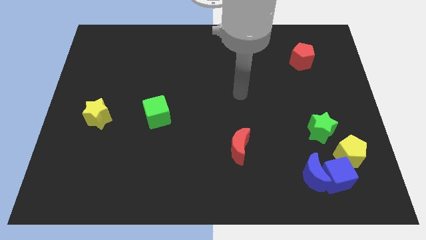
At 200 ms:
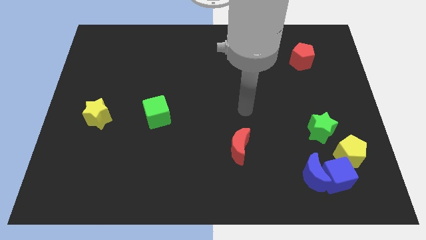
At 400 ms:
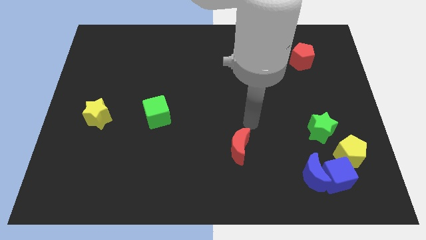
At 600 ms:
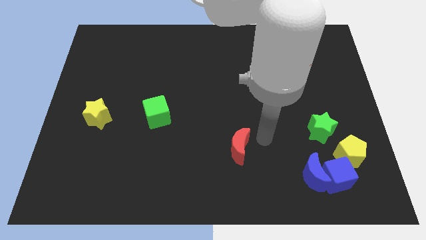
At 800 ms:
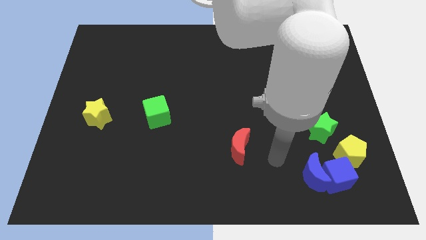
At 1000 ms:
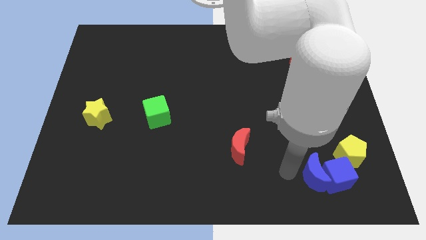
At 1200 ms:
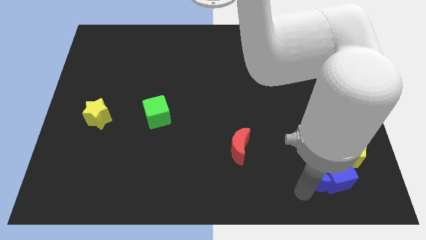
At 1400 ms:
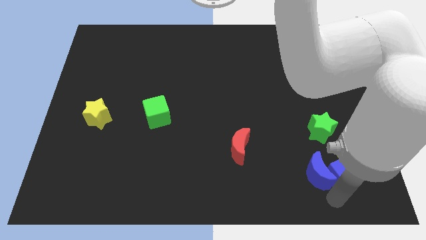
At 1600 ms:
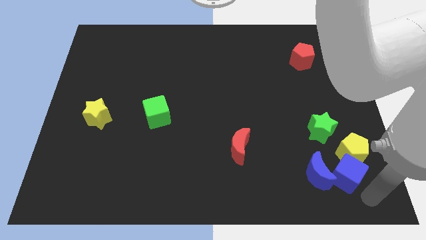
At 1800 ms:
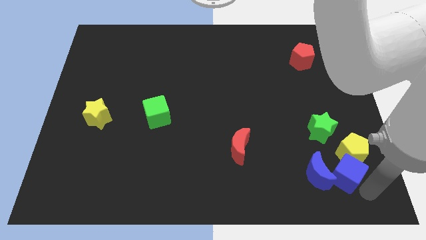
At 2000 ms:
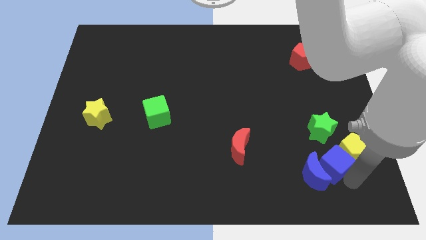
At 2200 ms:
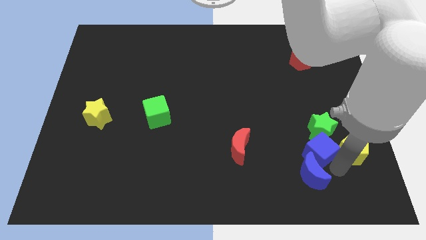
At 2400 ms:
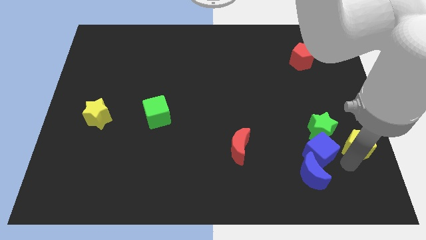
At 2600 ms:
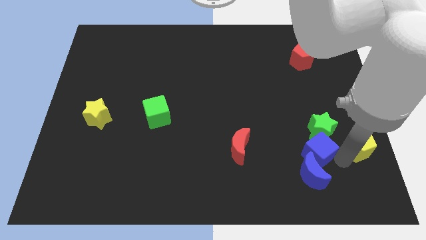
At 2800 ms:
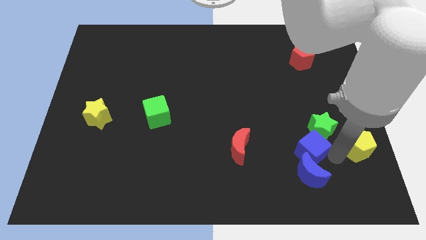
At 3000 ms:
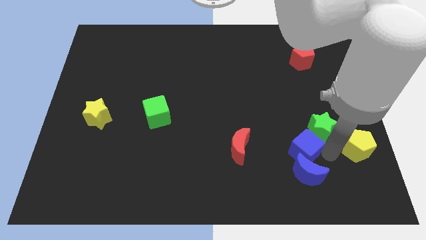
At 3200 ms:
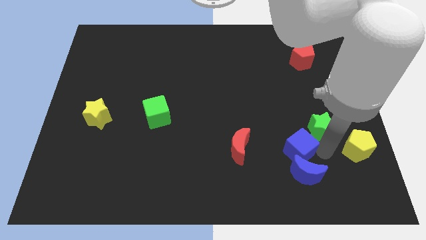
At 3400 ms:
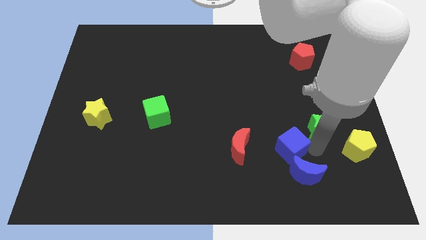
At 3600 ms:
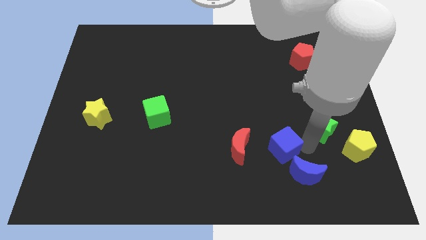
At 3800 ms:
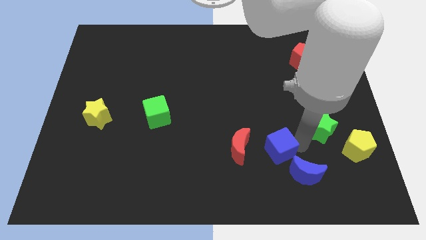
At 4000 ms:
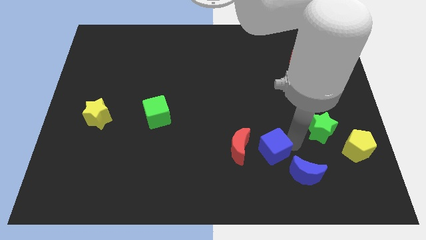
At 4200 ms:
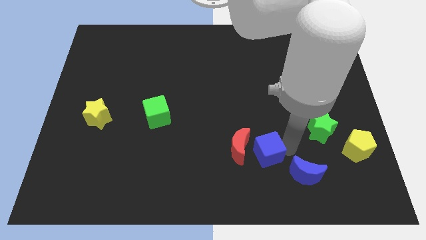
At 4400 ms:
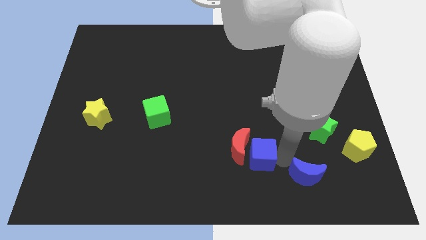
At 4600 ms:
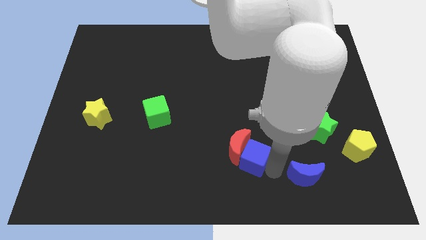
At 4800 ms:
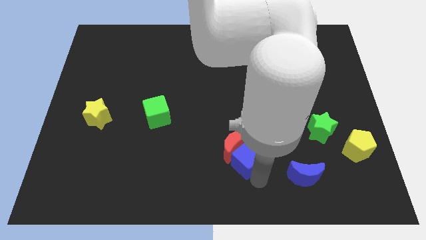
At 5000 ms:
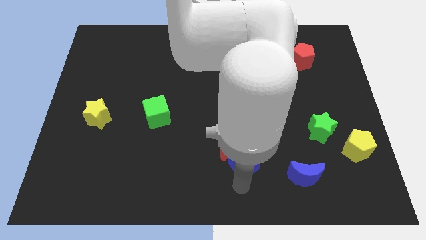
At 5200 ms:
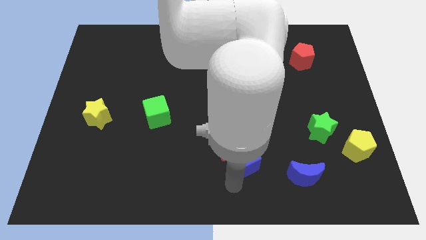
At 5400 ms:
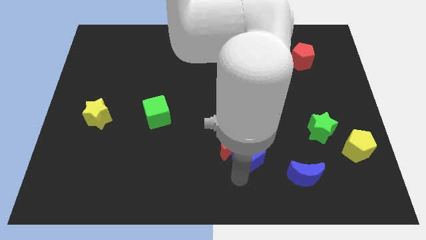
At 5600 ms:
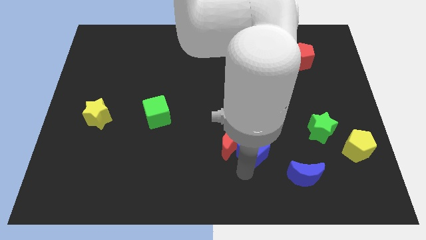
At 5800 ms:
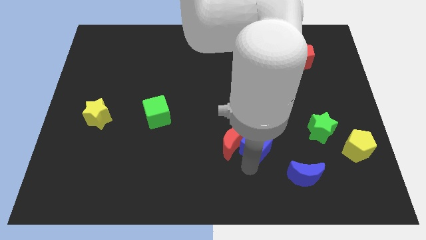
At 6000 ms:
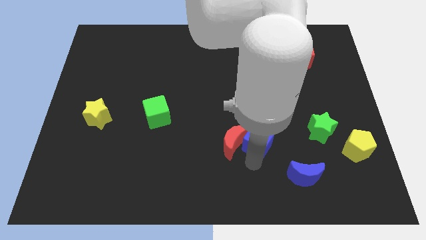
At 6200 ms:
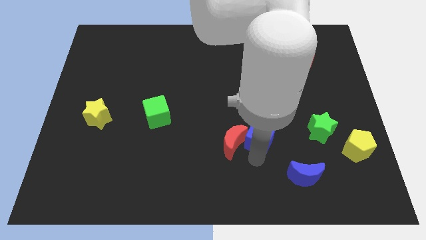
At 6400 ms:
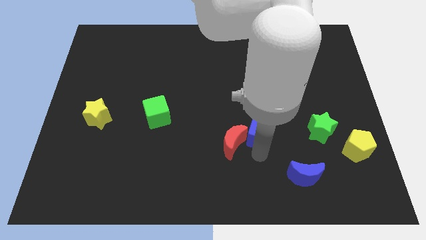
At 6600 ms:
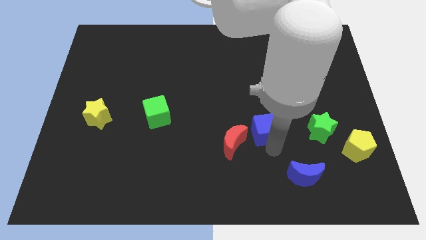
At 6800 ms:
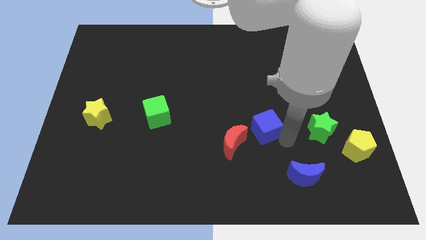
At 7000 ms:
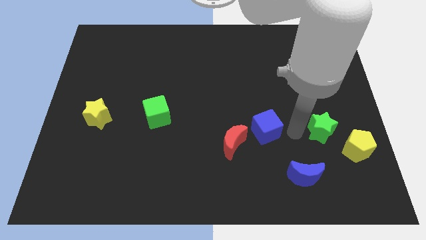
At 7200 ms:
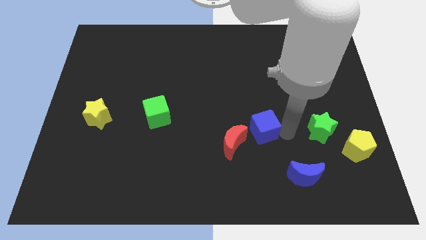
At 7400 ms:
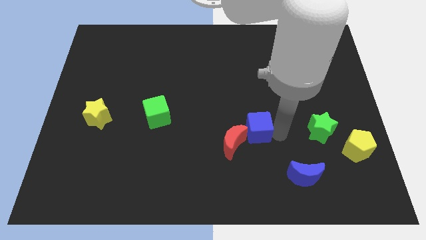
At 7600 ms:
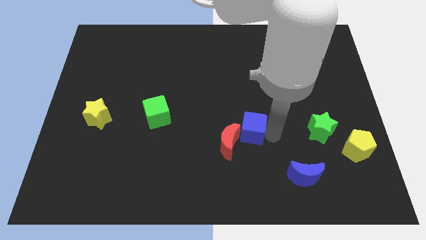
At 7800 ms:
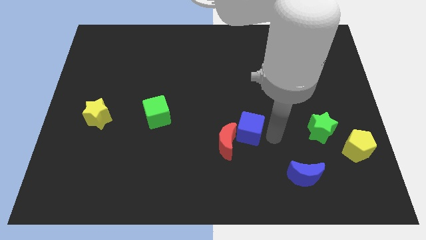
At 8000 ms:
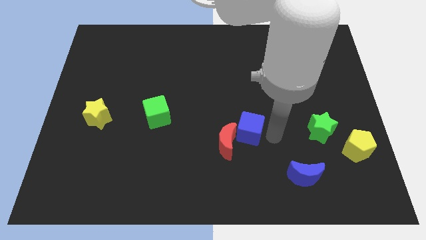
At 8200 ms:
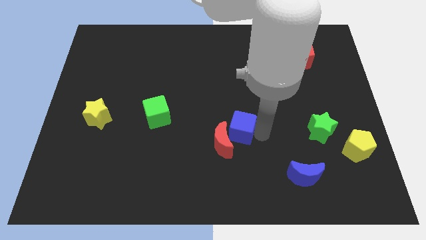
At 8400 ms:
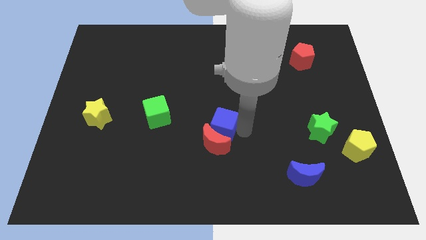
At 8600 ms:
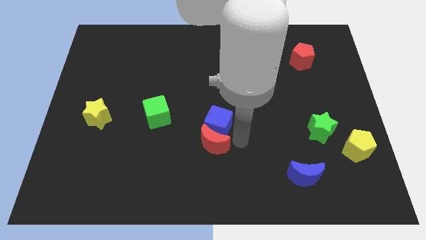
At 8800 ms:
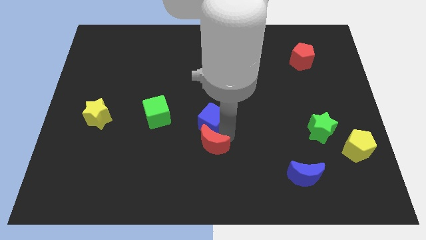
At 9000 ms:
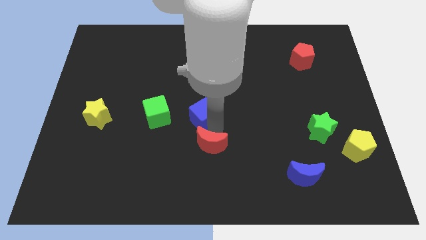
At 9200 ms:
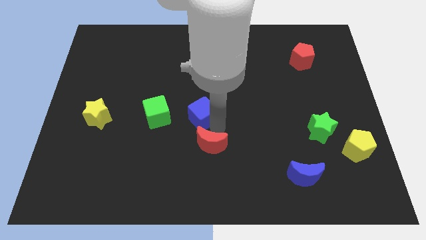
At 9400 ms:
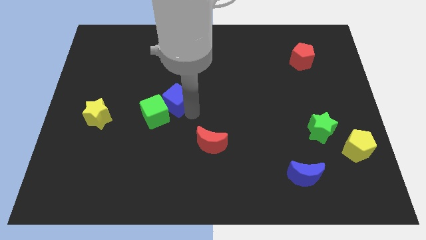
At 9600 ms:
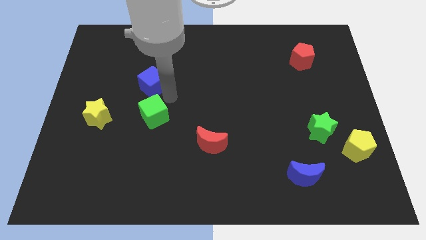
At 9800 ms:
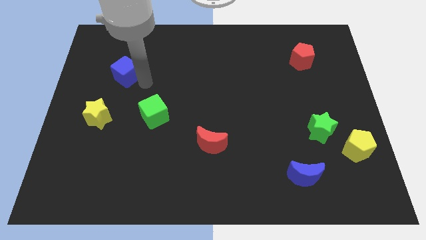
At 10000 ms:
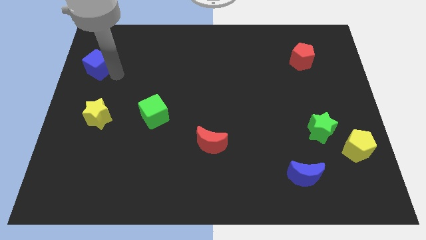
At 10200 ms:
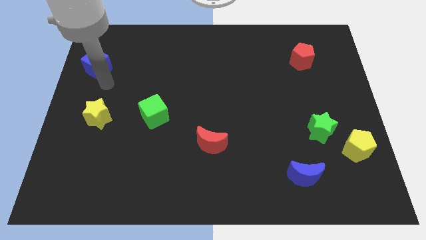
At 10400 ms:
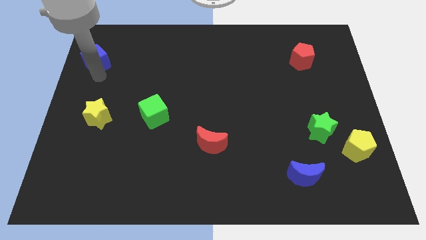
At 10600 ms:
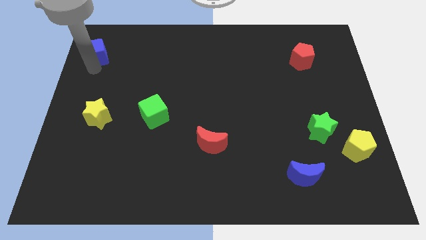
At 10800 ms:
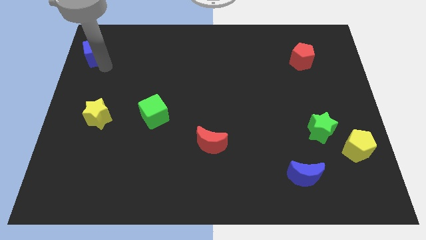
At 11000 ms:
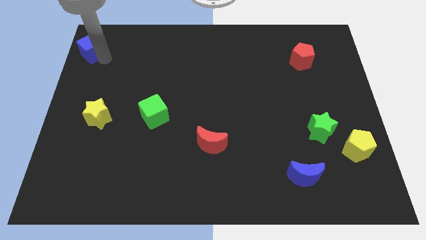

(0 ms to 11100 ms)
slide the blue cube to the upper left corner

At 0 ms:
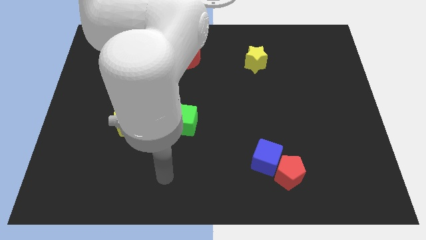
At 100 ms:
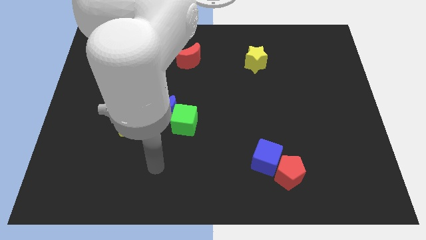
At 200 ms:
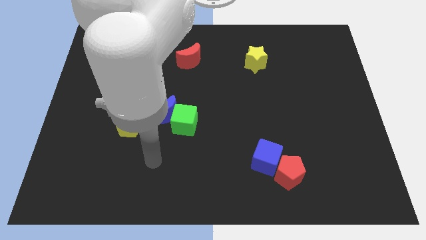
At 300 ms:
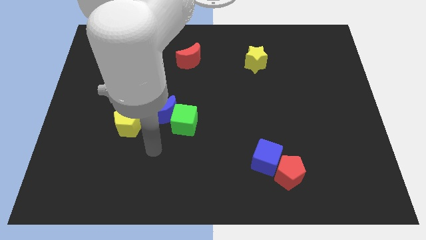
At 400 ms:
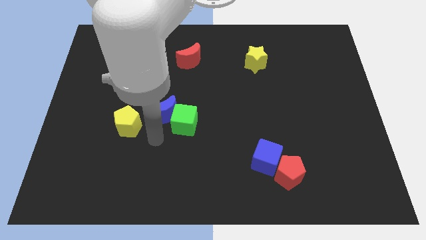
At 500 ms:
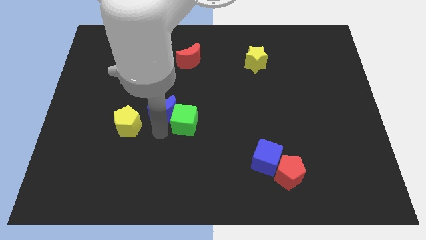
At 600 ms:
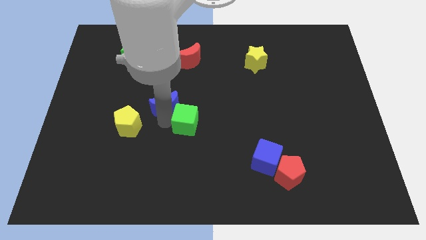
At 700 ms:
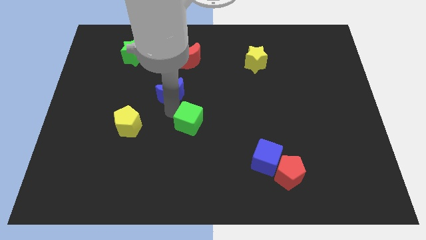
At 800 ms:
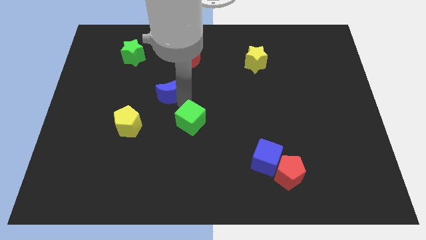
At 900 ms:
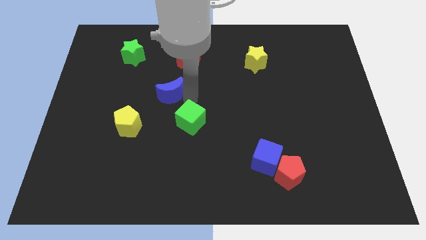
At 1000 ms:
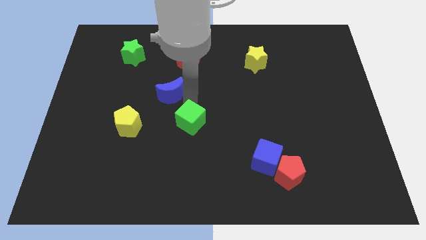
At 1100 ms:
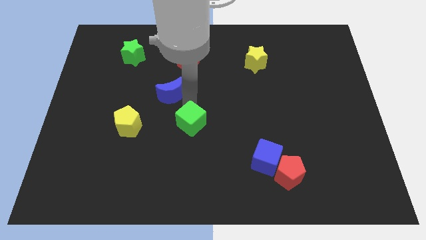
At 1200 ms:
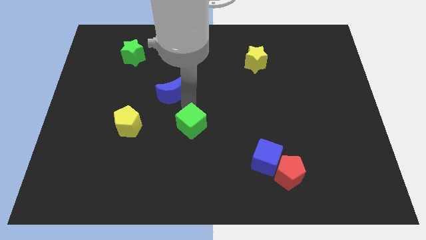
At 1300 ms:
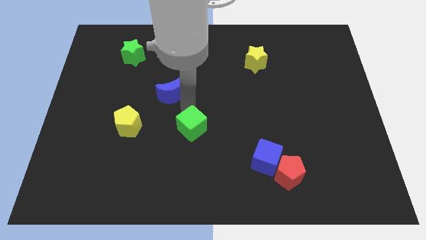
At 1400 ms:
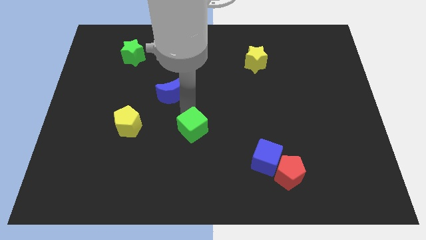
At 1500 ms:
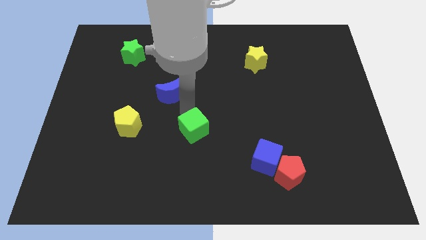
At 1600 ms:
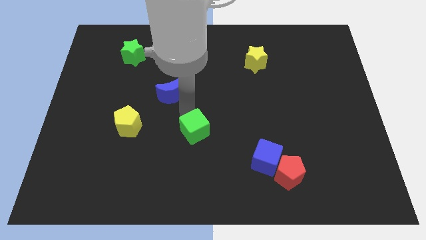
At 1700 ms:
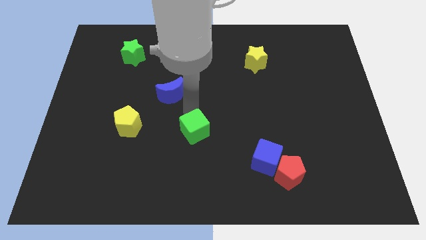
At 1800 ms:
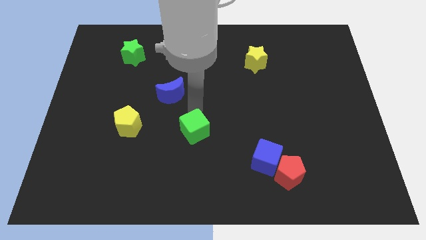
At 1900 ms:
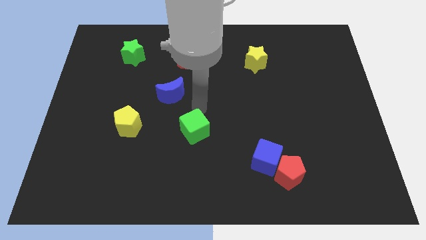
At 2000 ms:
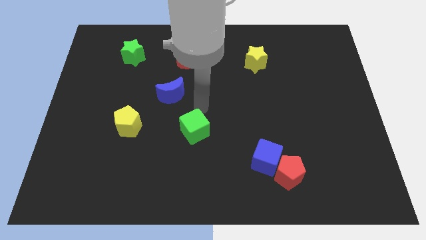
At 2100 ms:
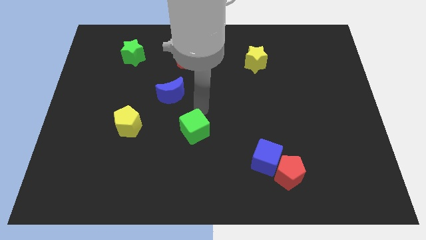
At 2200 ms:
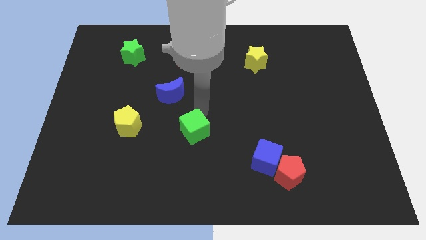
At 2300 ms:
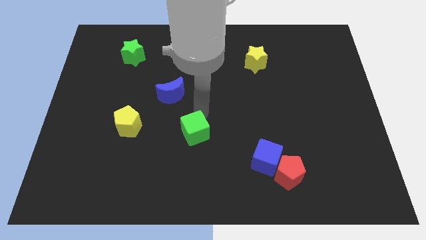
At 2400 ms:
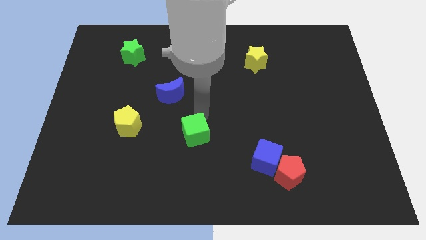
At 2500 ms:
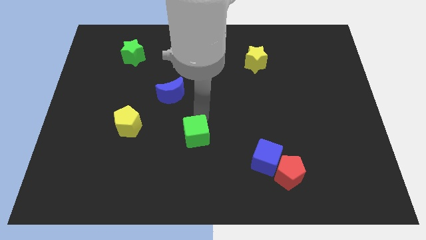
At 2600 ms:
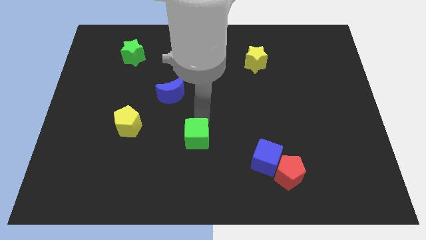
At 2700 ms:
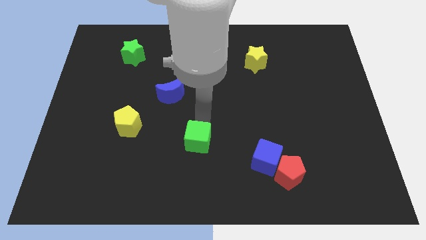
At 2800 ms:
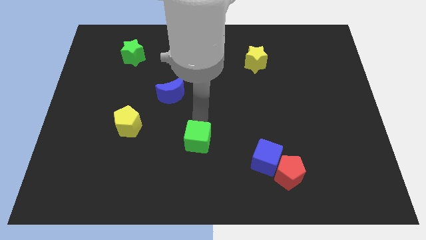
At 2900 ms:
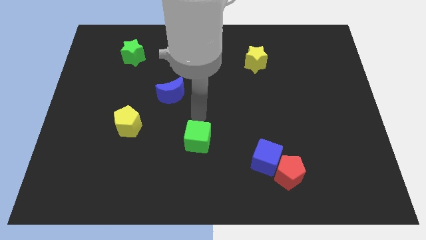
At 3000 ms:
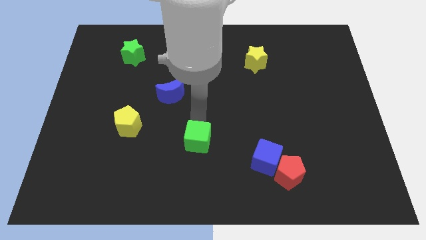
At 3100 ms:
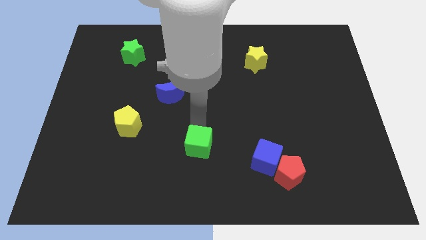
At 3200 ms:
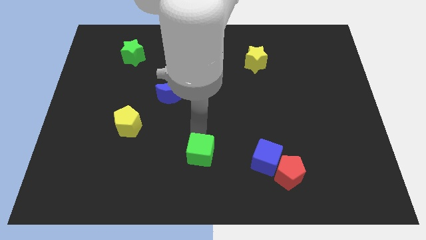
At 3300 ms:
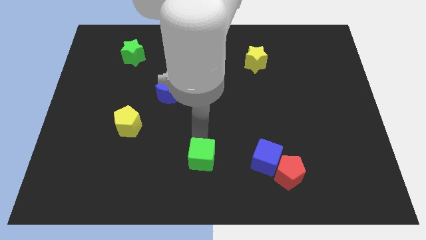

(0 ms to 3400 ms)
slide the green cube to the bottom
